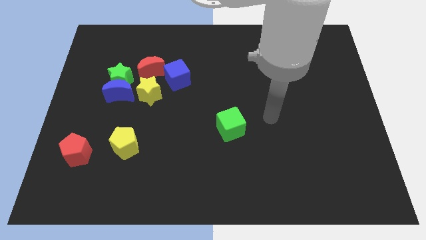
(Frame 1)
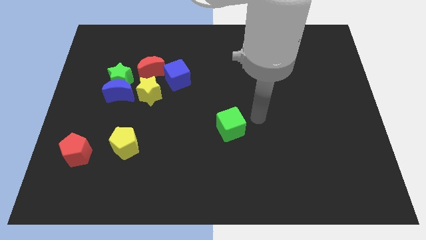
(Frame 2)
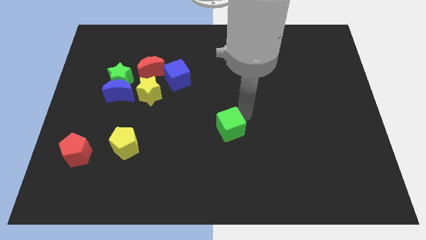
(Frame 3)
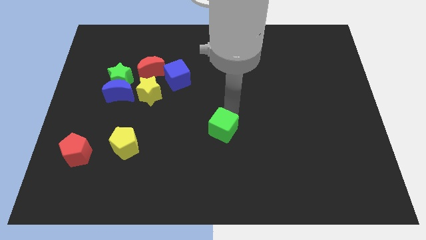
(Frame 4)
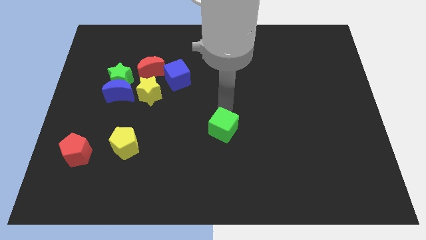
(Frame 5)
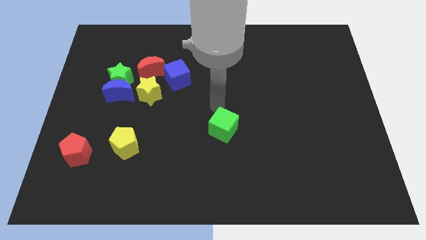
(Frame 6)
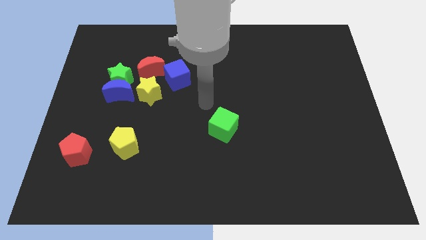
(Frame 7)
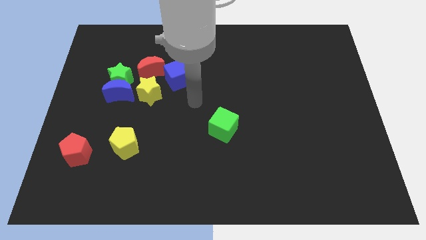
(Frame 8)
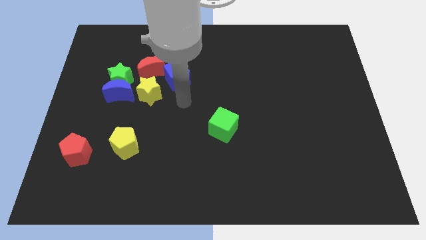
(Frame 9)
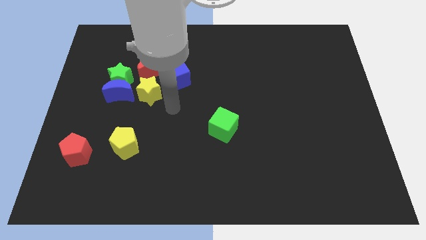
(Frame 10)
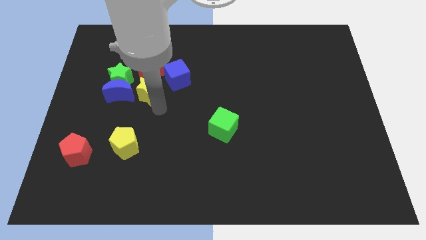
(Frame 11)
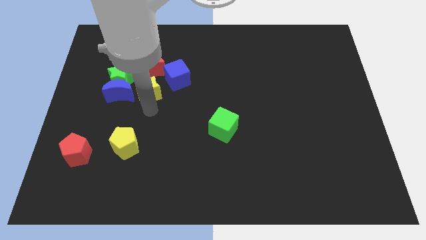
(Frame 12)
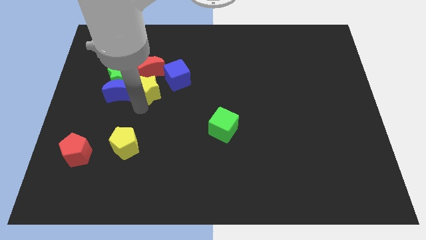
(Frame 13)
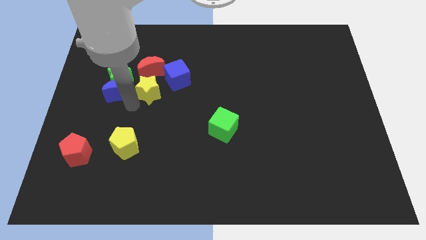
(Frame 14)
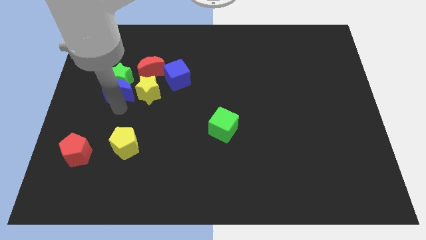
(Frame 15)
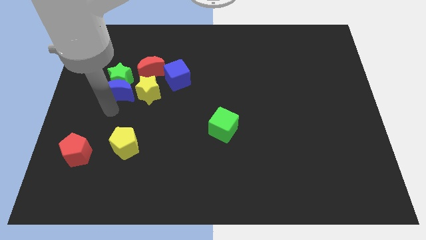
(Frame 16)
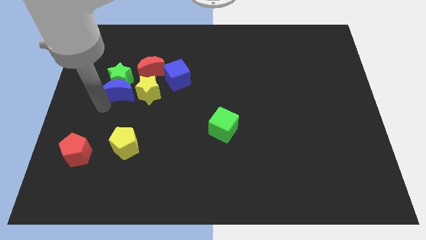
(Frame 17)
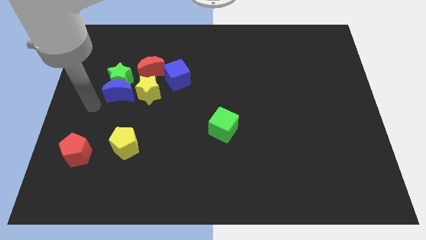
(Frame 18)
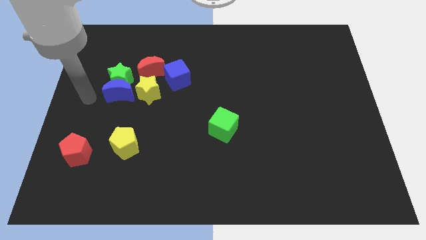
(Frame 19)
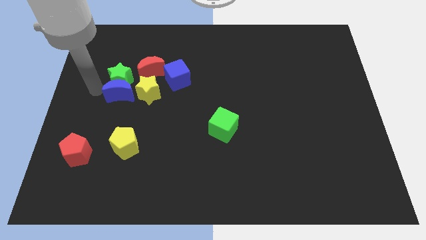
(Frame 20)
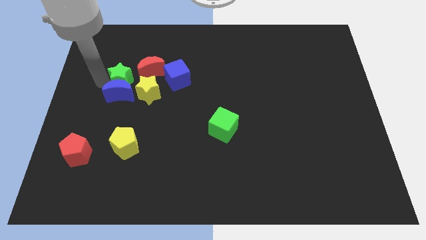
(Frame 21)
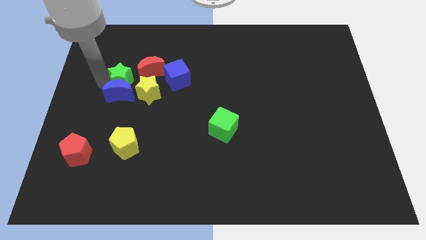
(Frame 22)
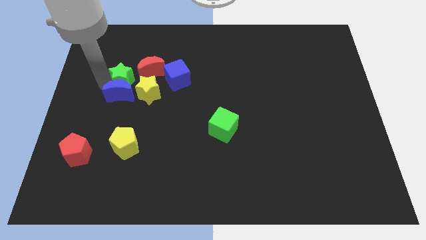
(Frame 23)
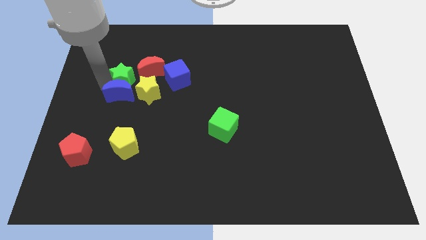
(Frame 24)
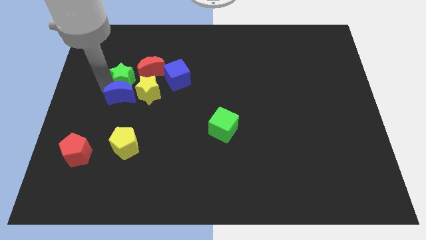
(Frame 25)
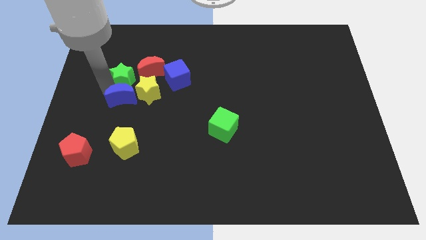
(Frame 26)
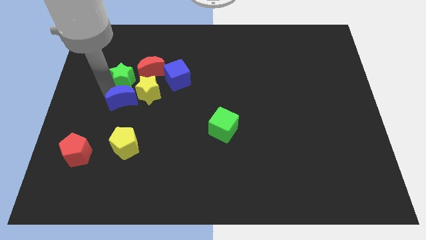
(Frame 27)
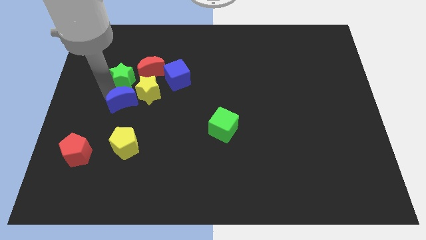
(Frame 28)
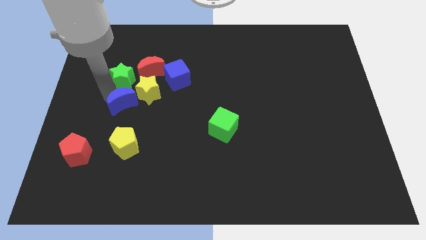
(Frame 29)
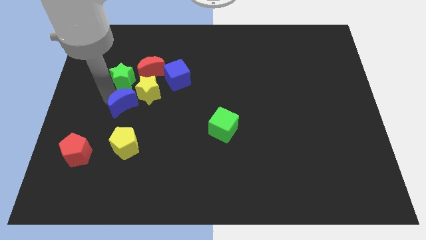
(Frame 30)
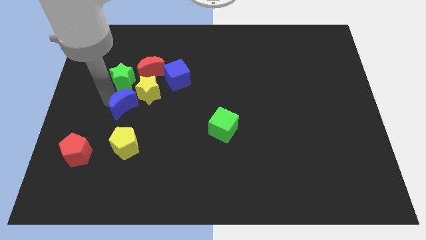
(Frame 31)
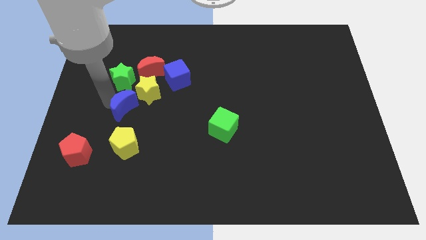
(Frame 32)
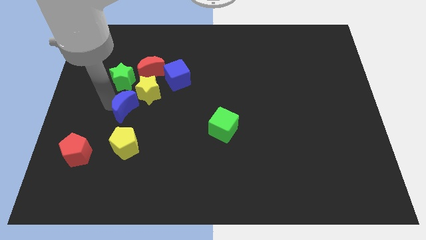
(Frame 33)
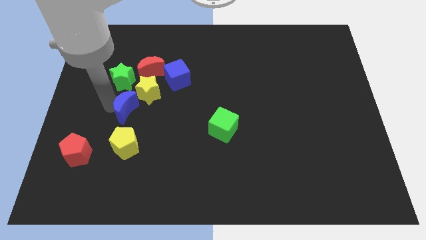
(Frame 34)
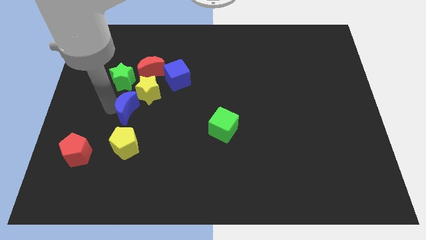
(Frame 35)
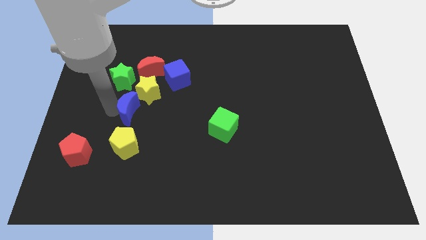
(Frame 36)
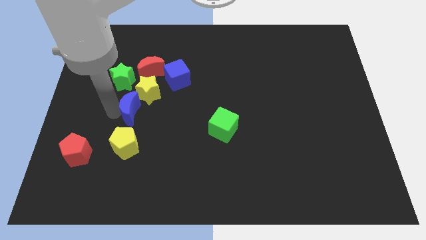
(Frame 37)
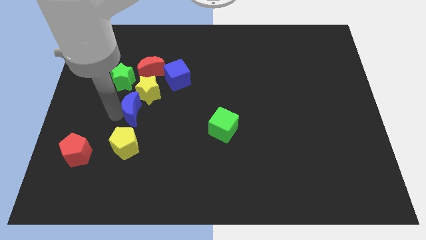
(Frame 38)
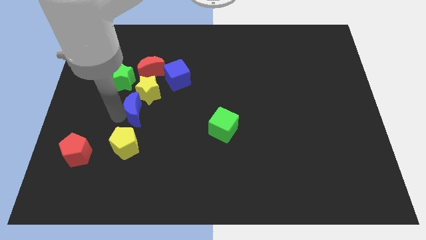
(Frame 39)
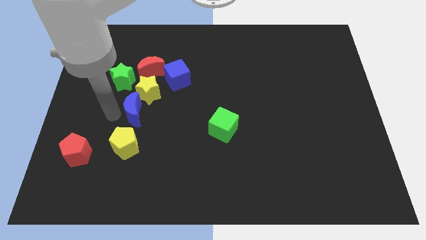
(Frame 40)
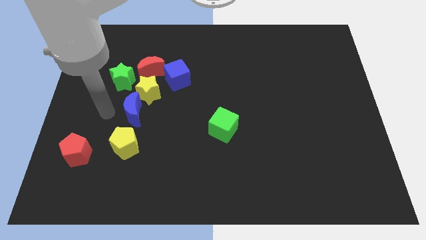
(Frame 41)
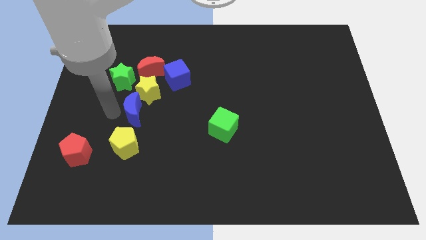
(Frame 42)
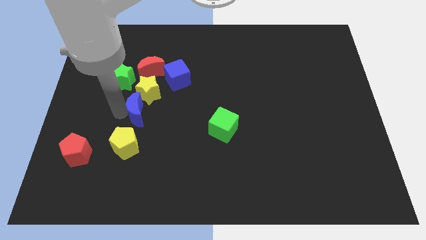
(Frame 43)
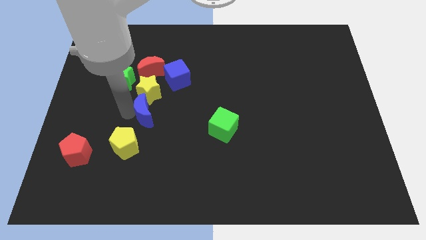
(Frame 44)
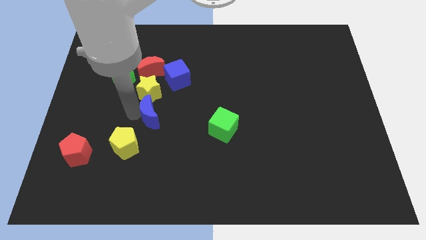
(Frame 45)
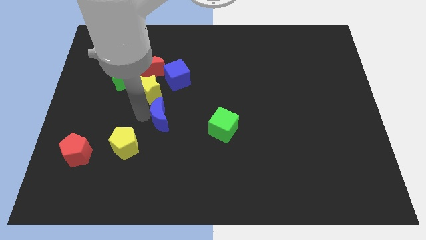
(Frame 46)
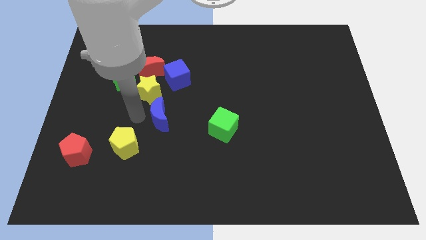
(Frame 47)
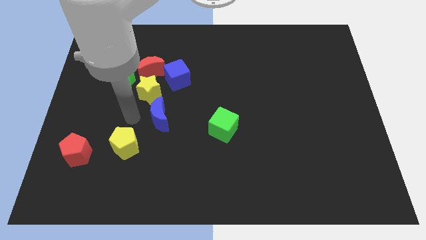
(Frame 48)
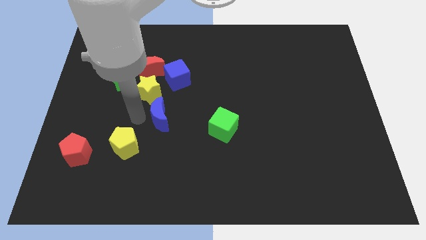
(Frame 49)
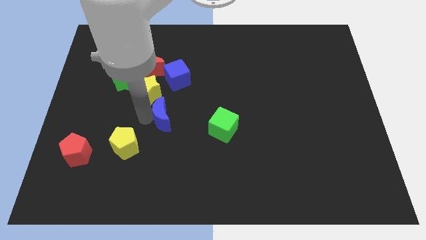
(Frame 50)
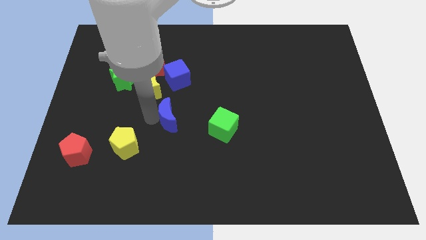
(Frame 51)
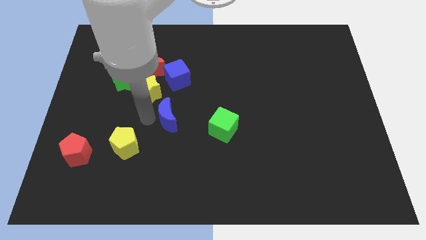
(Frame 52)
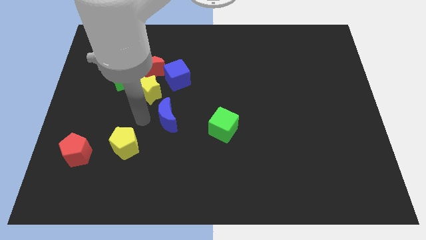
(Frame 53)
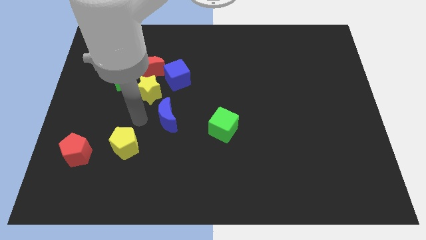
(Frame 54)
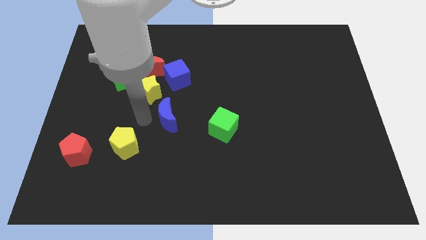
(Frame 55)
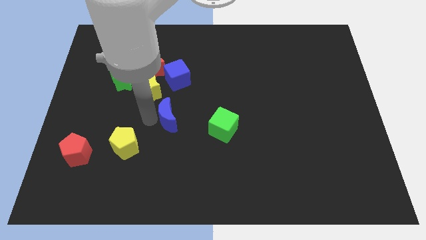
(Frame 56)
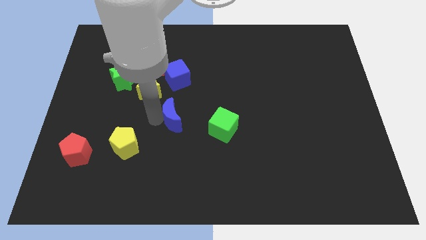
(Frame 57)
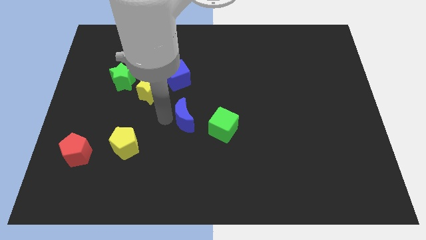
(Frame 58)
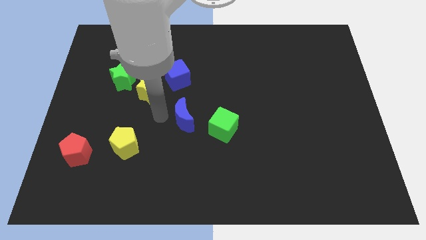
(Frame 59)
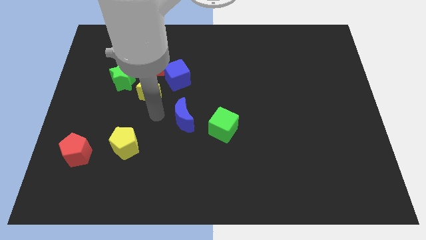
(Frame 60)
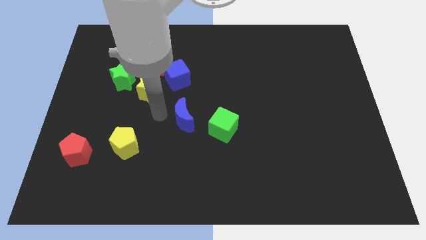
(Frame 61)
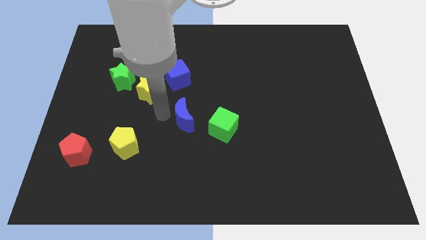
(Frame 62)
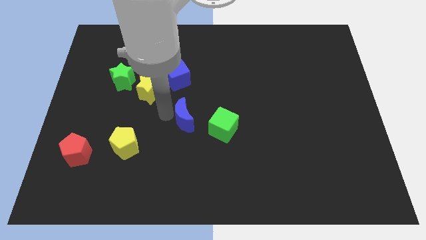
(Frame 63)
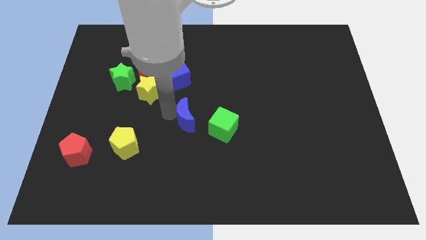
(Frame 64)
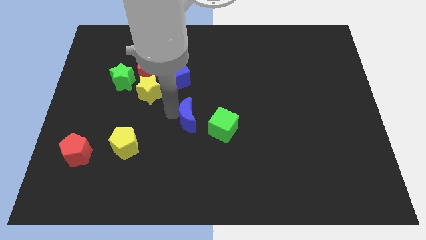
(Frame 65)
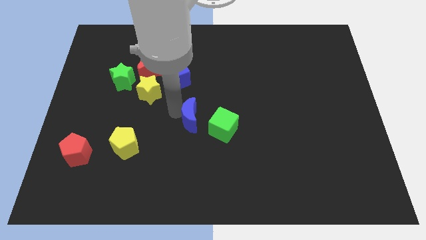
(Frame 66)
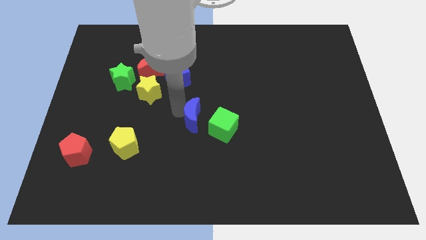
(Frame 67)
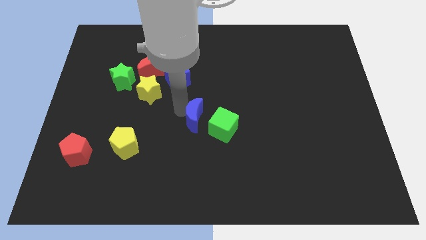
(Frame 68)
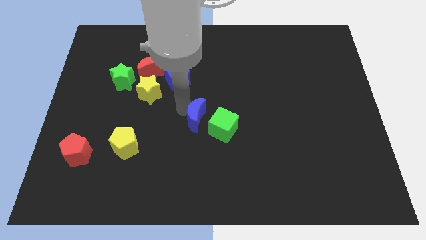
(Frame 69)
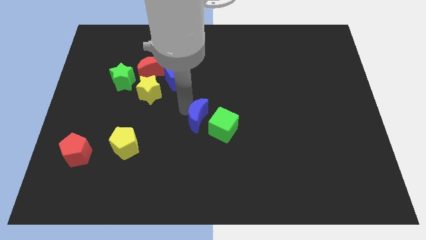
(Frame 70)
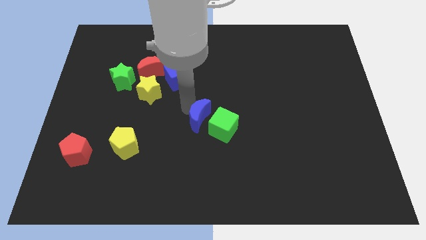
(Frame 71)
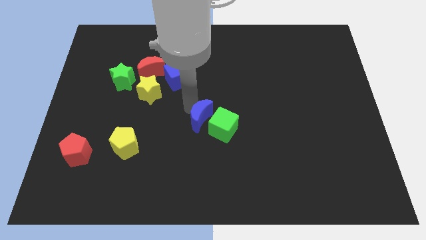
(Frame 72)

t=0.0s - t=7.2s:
move the blue moon close to the green cube
